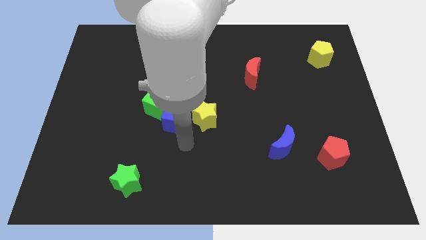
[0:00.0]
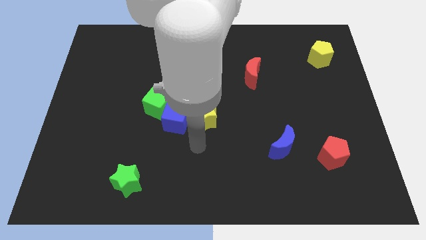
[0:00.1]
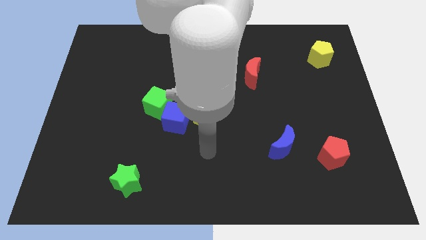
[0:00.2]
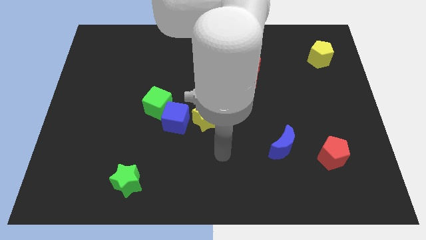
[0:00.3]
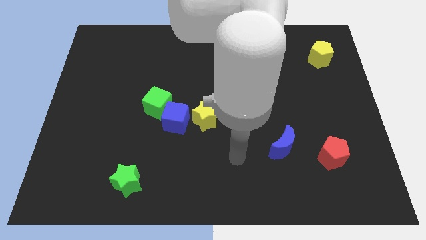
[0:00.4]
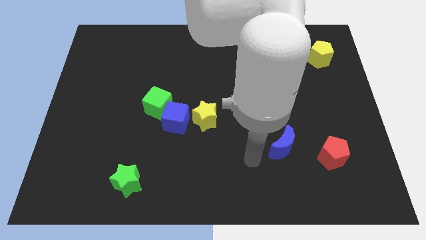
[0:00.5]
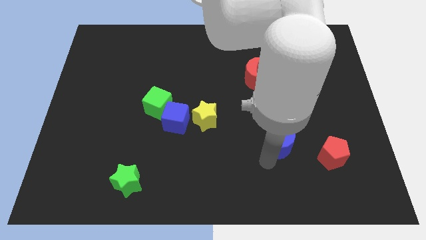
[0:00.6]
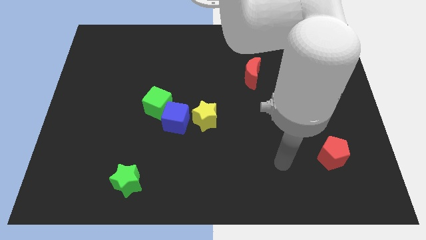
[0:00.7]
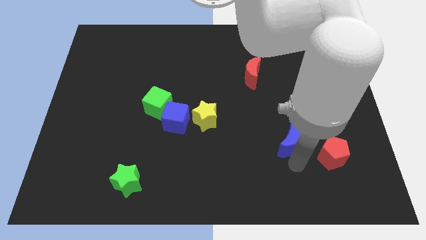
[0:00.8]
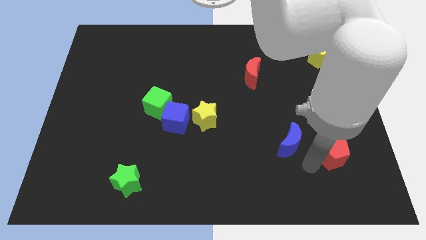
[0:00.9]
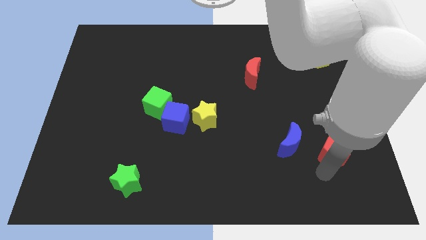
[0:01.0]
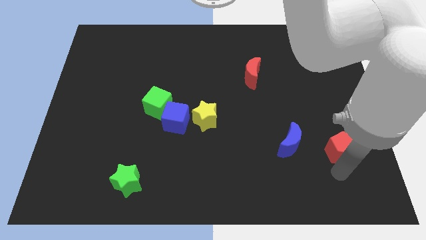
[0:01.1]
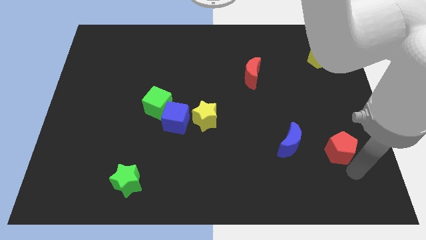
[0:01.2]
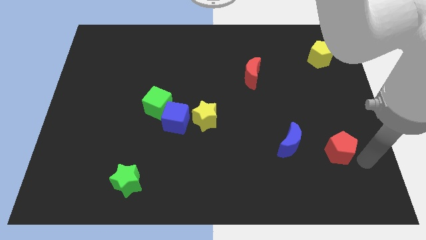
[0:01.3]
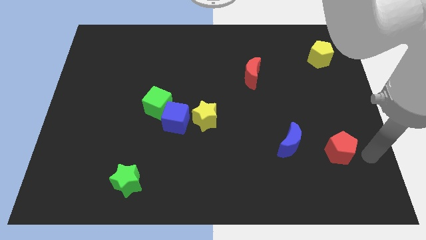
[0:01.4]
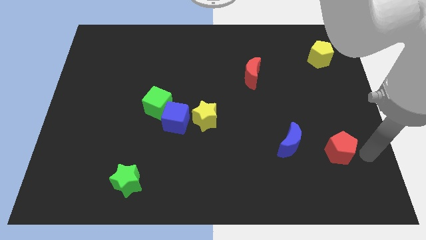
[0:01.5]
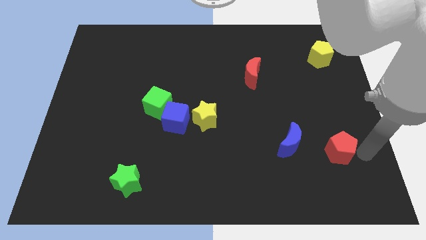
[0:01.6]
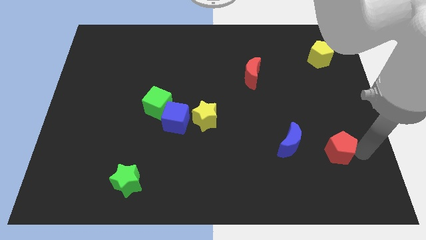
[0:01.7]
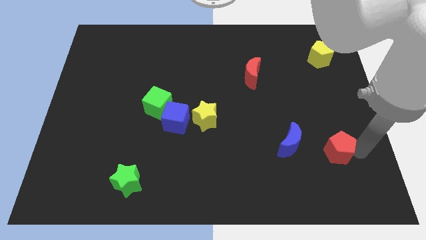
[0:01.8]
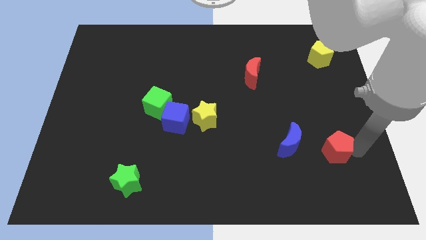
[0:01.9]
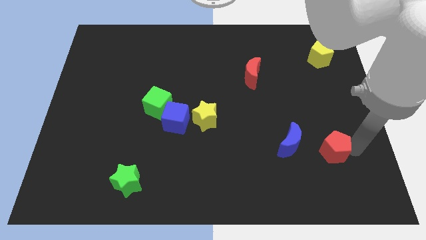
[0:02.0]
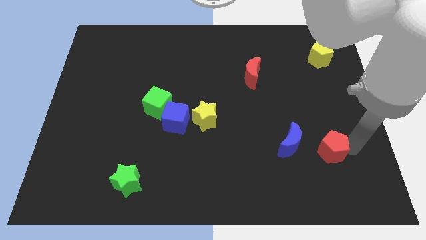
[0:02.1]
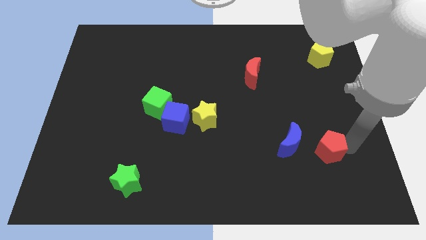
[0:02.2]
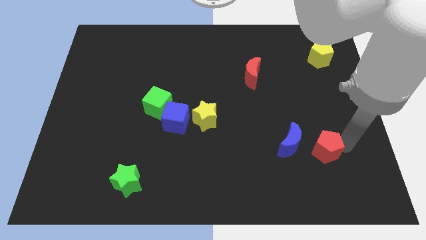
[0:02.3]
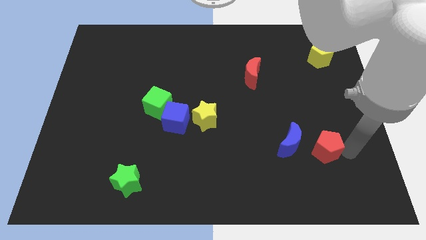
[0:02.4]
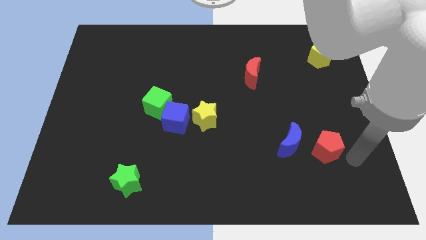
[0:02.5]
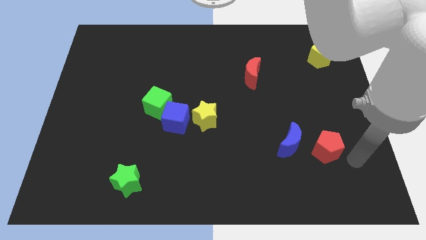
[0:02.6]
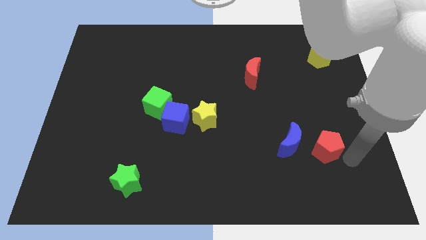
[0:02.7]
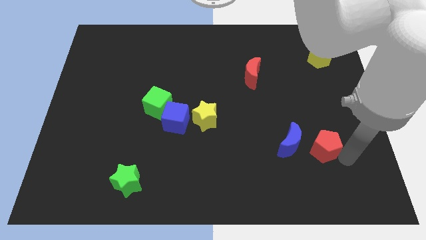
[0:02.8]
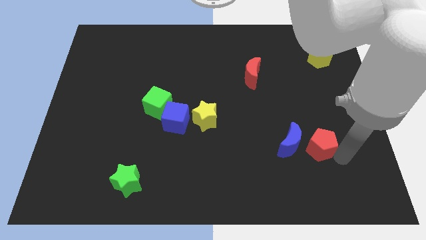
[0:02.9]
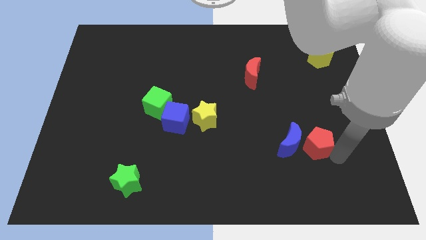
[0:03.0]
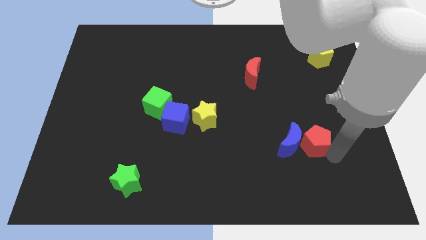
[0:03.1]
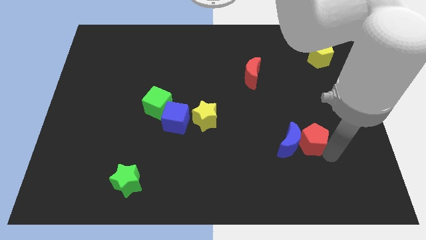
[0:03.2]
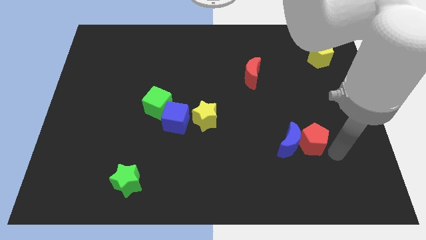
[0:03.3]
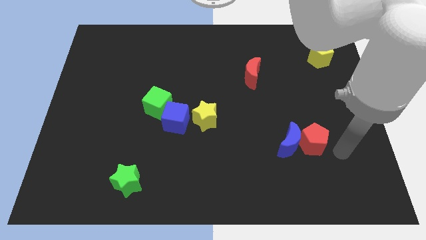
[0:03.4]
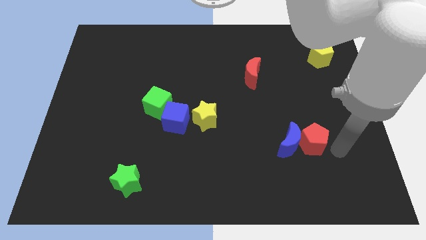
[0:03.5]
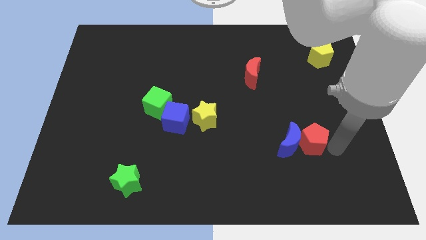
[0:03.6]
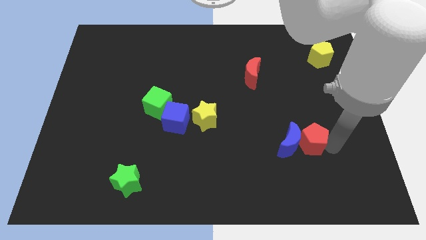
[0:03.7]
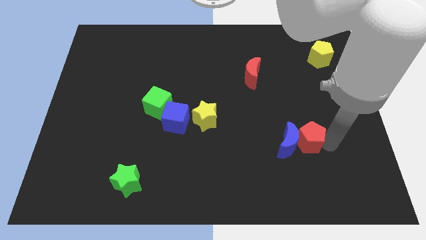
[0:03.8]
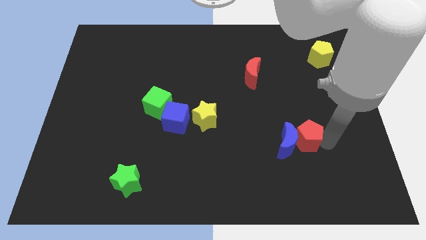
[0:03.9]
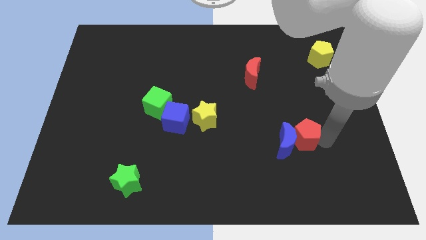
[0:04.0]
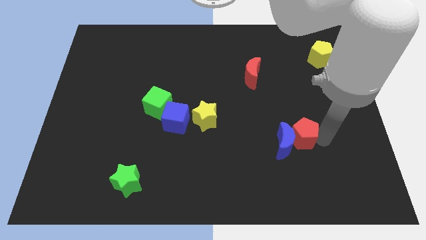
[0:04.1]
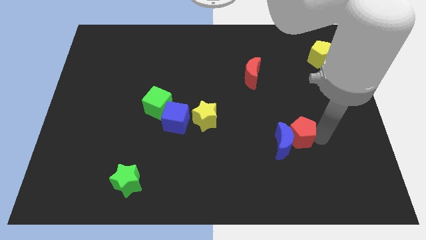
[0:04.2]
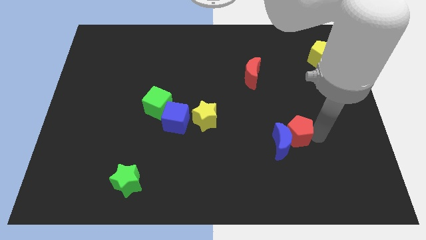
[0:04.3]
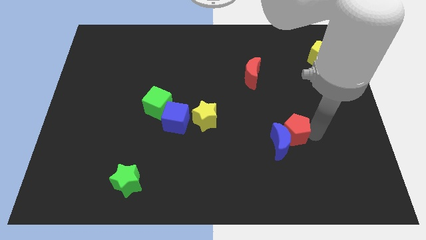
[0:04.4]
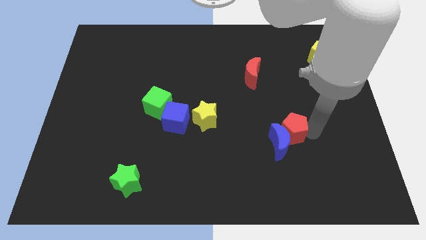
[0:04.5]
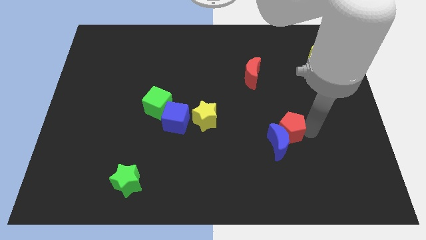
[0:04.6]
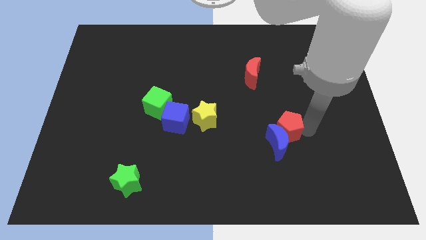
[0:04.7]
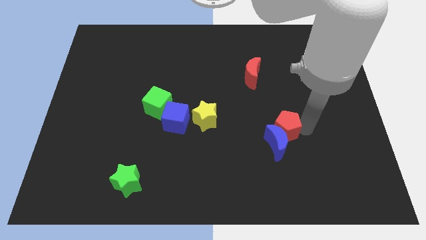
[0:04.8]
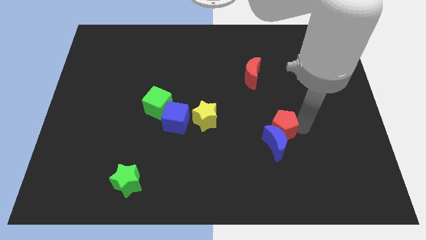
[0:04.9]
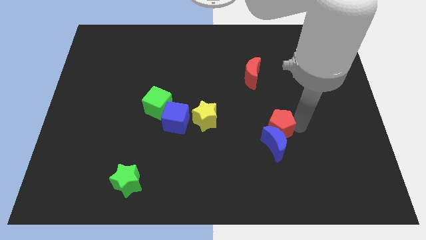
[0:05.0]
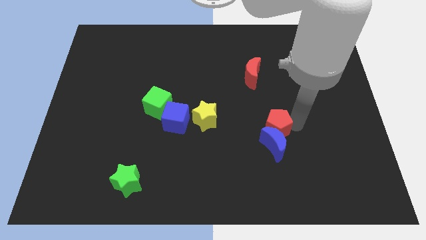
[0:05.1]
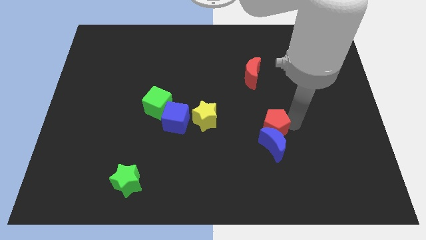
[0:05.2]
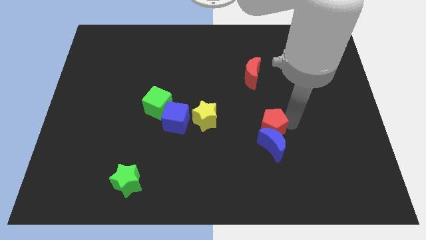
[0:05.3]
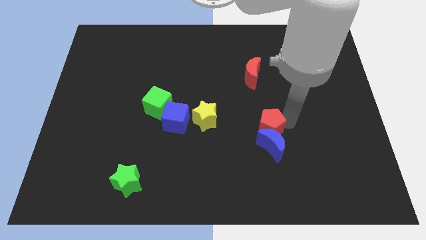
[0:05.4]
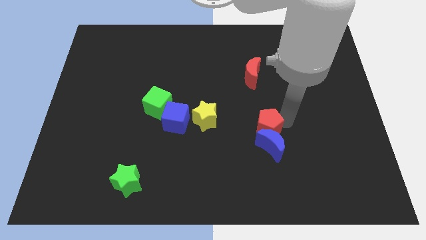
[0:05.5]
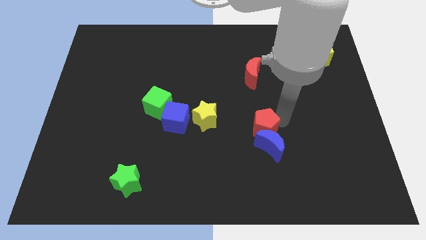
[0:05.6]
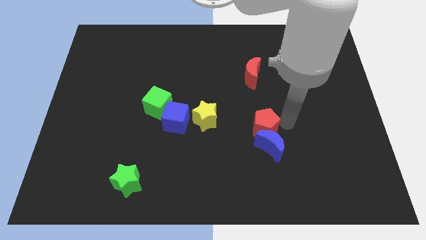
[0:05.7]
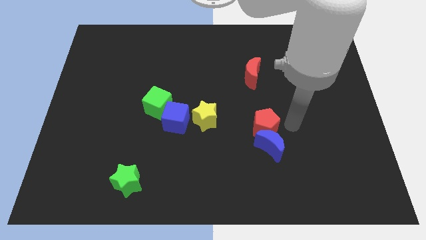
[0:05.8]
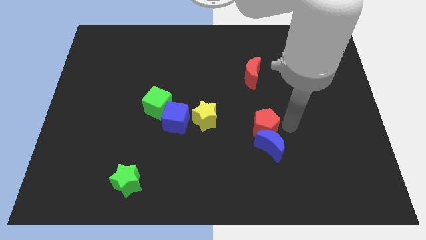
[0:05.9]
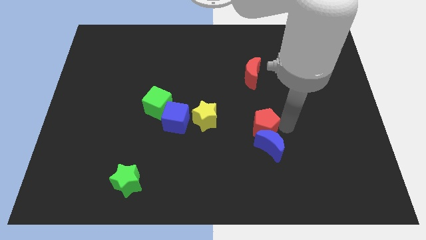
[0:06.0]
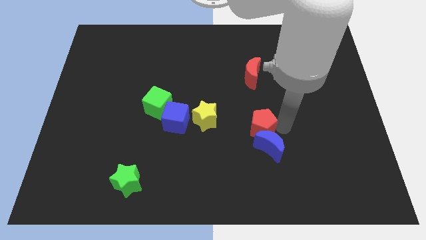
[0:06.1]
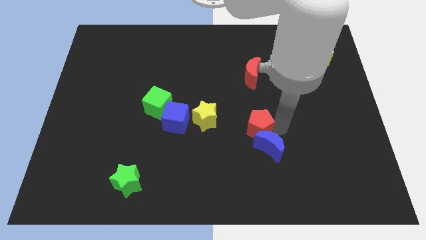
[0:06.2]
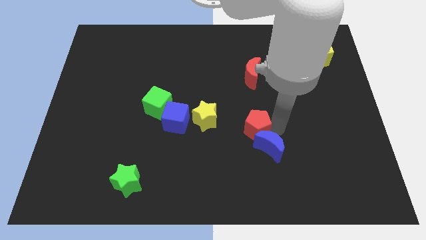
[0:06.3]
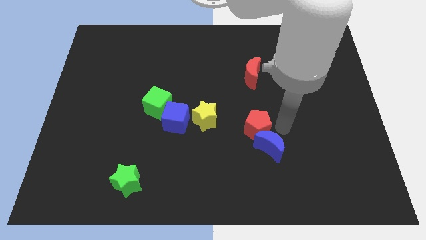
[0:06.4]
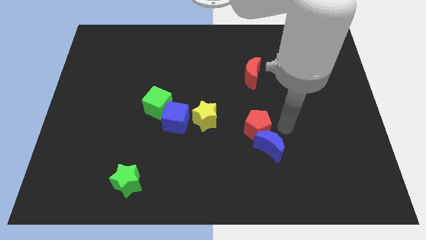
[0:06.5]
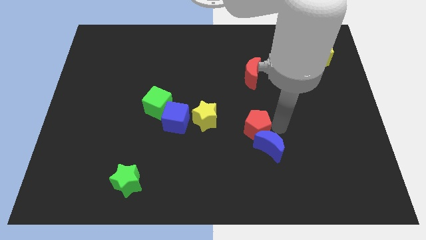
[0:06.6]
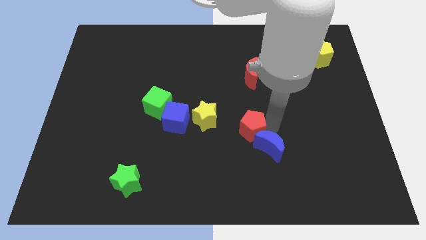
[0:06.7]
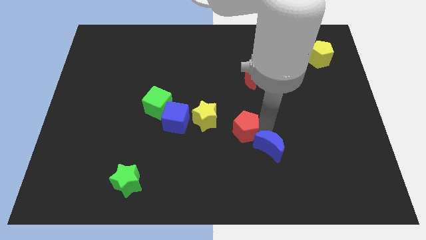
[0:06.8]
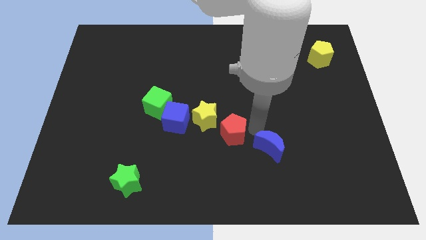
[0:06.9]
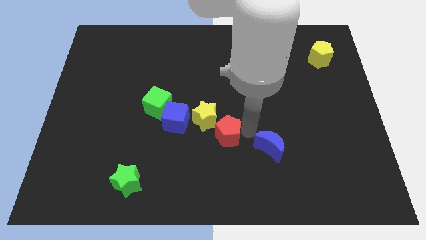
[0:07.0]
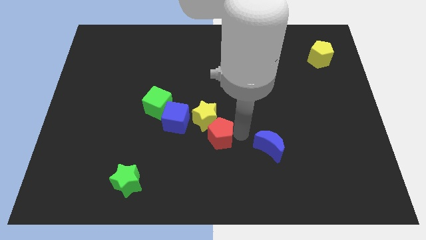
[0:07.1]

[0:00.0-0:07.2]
slide the red pentagon close to the yellow star
